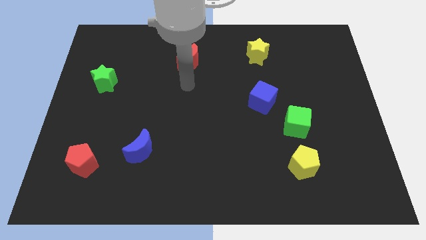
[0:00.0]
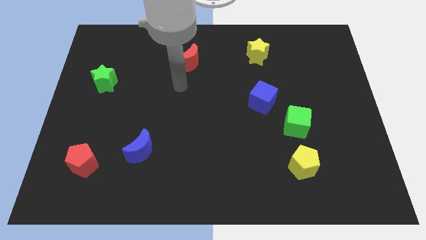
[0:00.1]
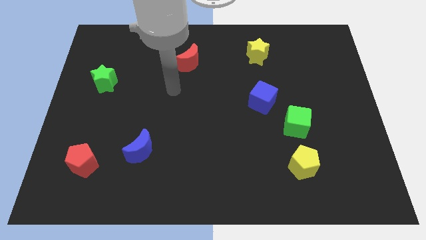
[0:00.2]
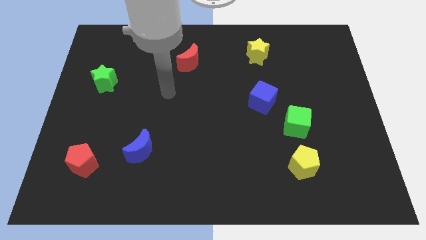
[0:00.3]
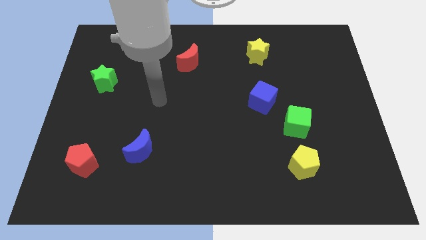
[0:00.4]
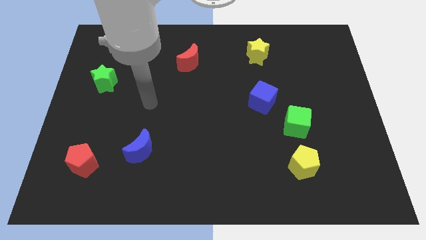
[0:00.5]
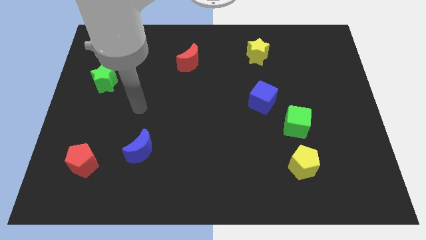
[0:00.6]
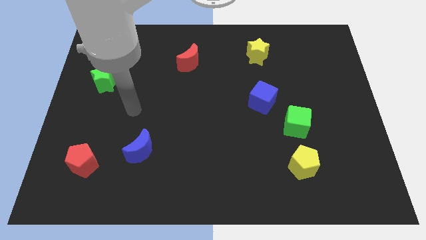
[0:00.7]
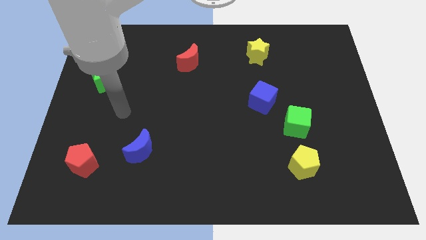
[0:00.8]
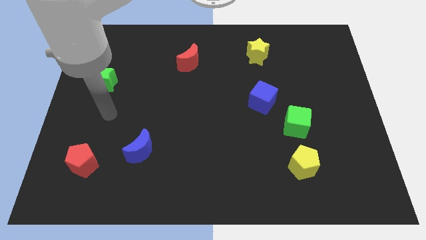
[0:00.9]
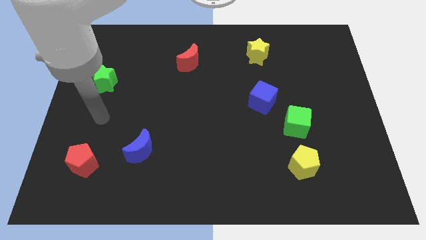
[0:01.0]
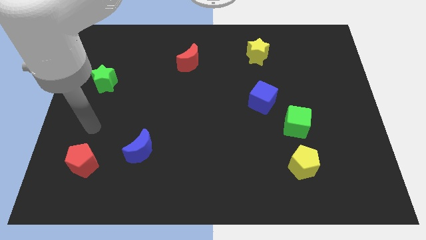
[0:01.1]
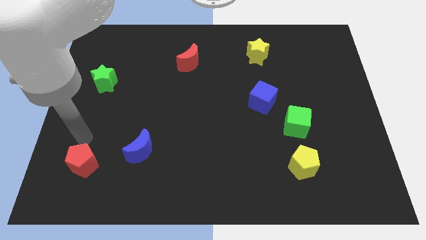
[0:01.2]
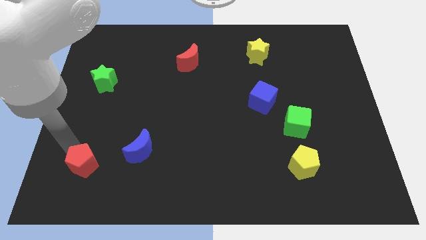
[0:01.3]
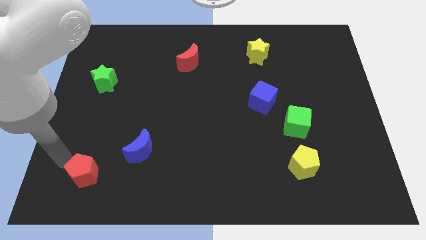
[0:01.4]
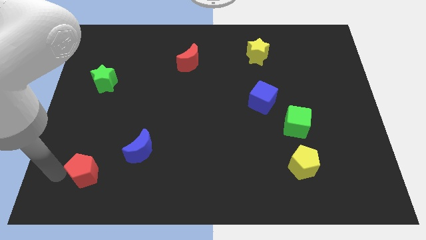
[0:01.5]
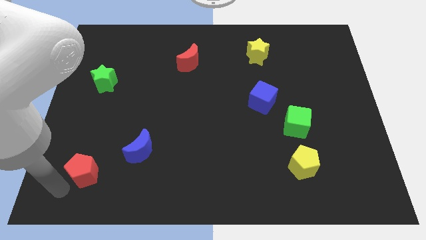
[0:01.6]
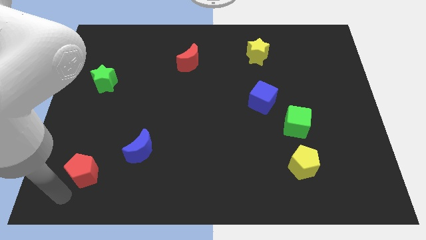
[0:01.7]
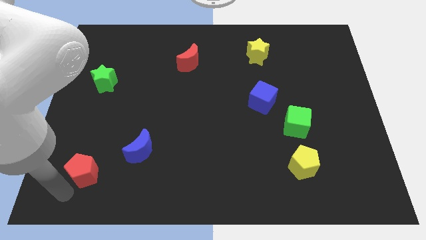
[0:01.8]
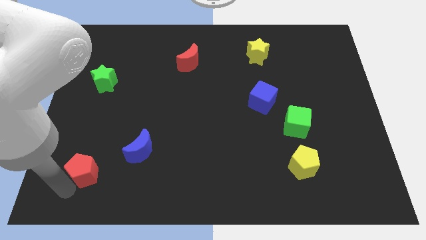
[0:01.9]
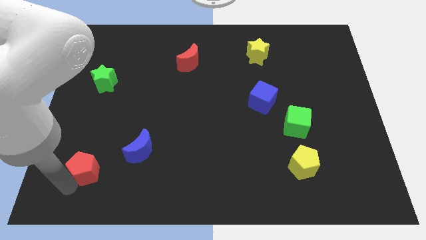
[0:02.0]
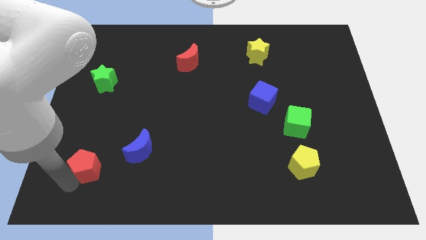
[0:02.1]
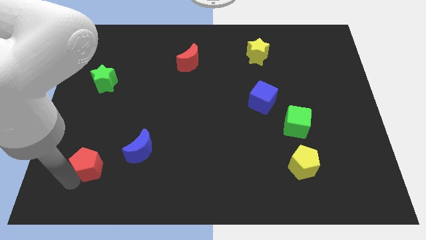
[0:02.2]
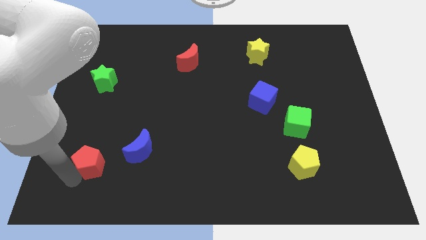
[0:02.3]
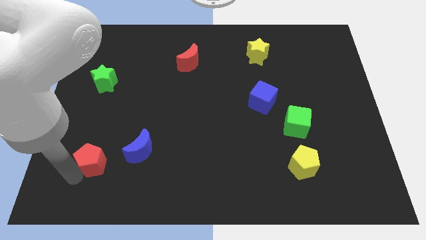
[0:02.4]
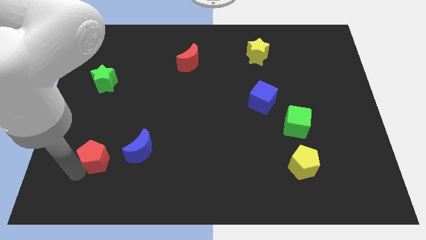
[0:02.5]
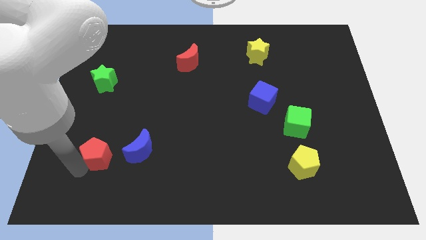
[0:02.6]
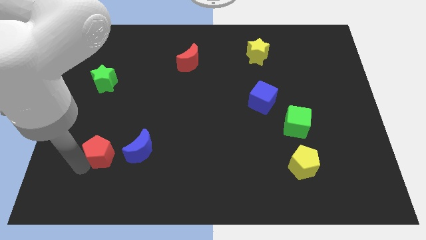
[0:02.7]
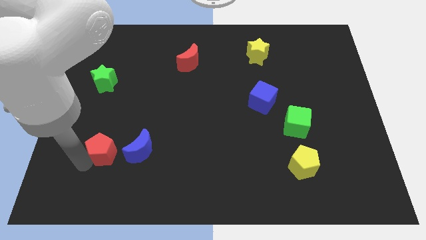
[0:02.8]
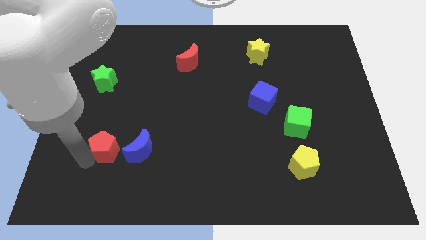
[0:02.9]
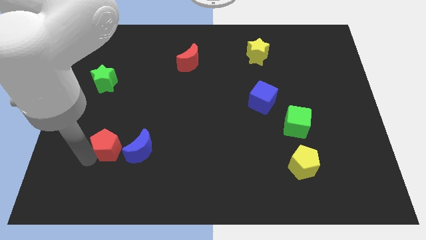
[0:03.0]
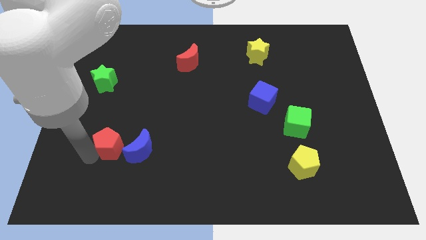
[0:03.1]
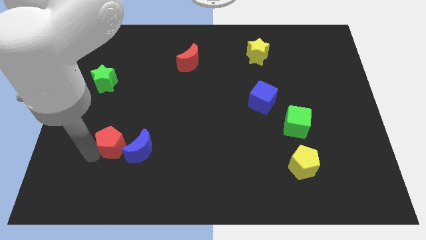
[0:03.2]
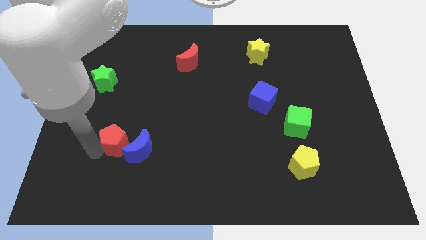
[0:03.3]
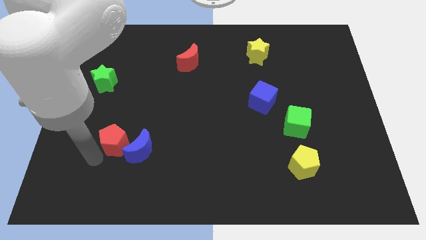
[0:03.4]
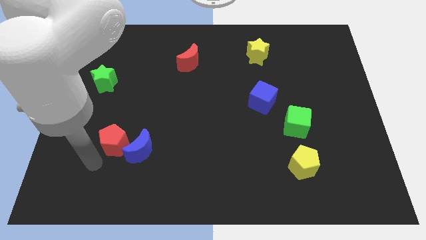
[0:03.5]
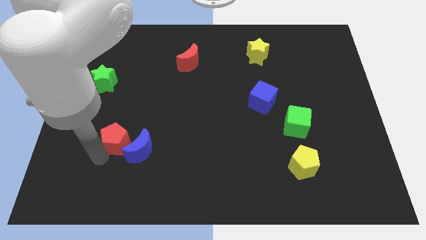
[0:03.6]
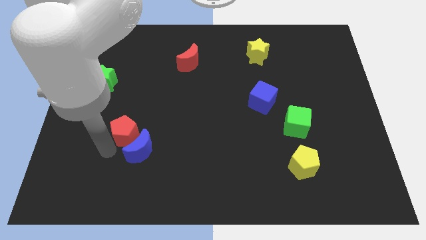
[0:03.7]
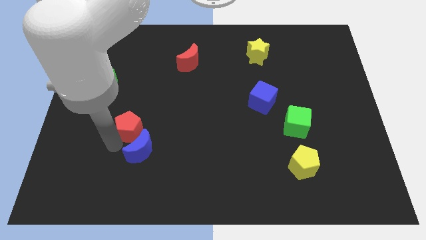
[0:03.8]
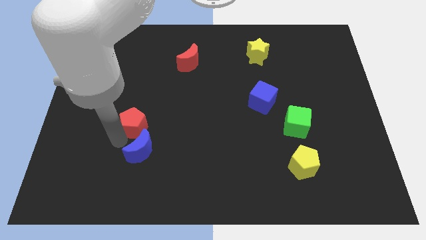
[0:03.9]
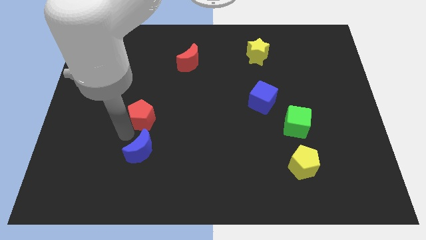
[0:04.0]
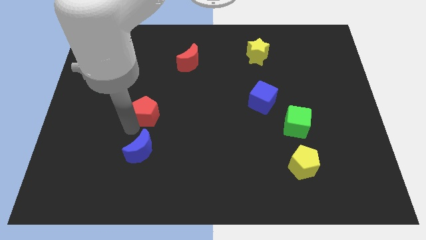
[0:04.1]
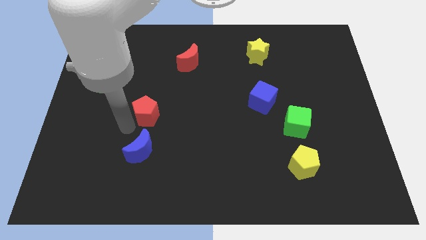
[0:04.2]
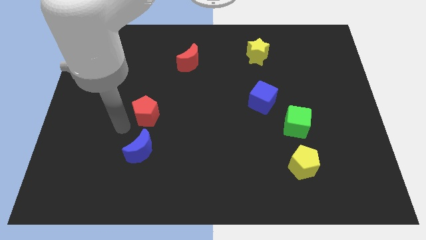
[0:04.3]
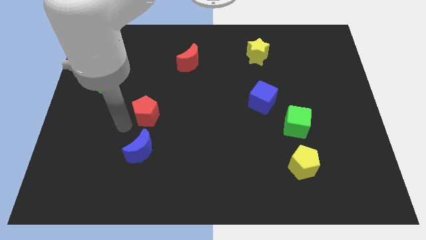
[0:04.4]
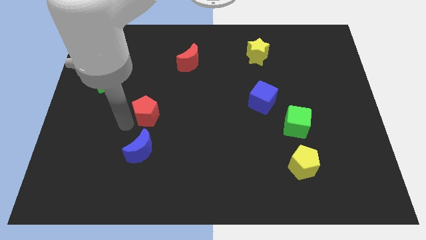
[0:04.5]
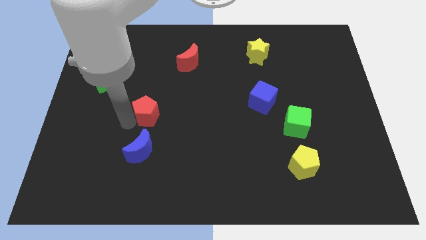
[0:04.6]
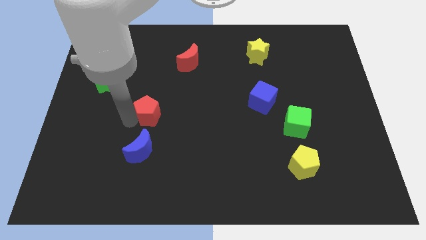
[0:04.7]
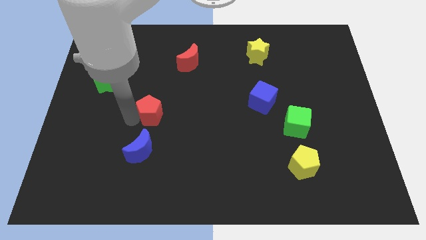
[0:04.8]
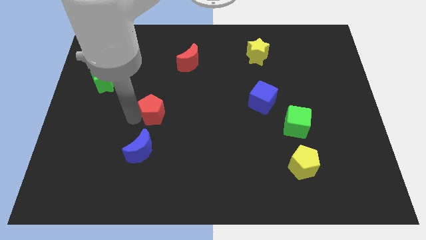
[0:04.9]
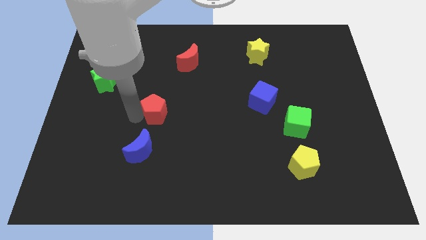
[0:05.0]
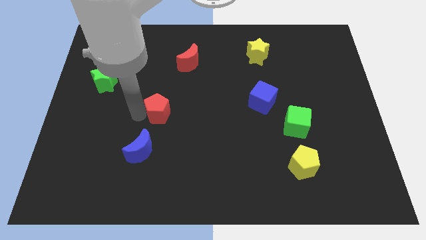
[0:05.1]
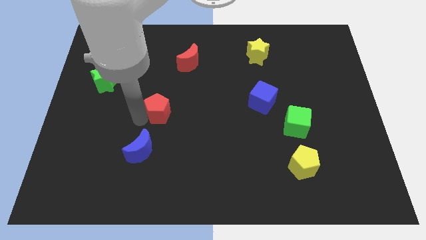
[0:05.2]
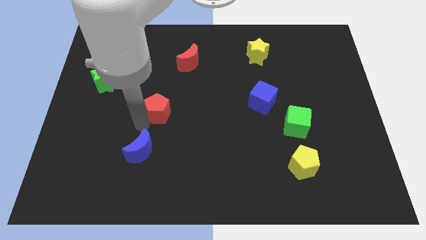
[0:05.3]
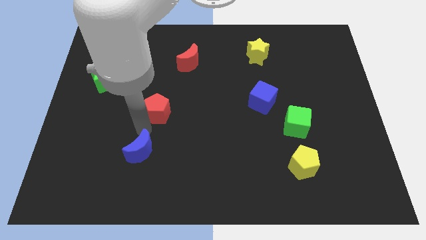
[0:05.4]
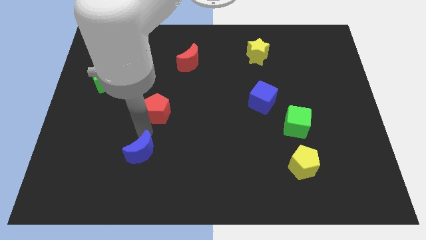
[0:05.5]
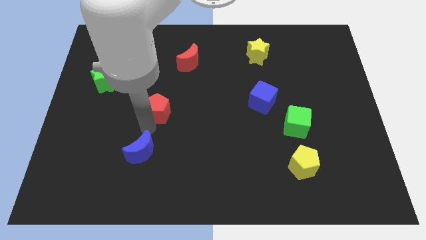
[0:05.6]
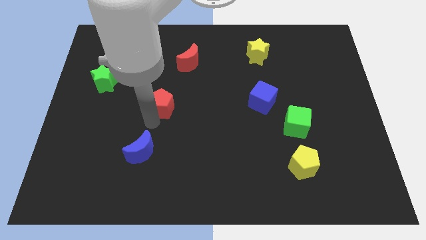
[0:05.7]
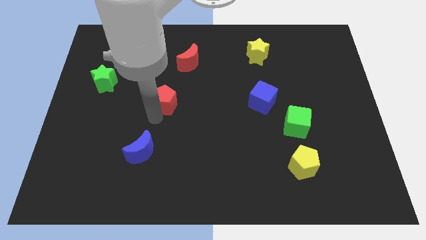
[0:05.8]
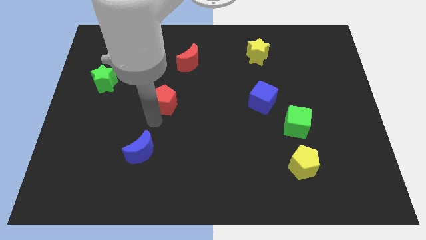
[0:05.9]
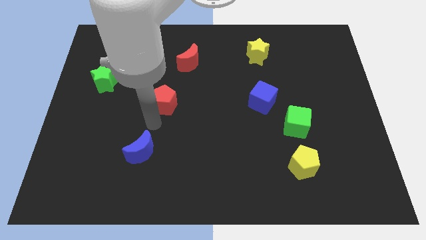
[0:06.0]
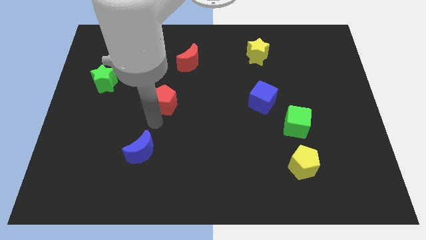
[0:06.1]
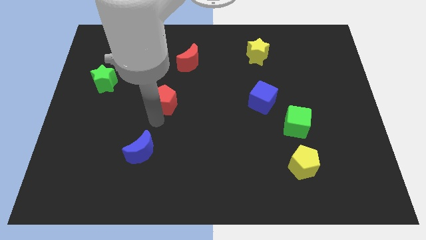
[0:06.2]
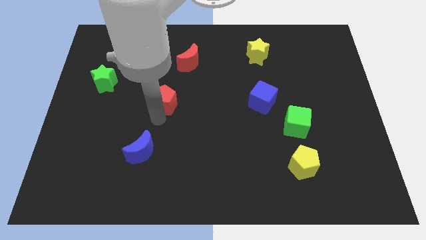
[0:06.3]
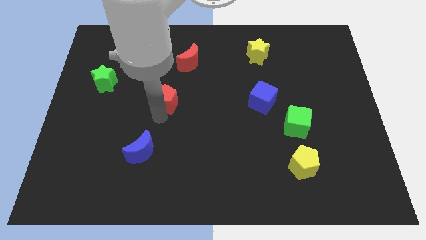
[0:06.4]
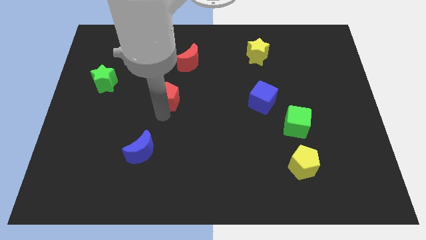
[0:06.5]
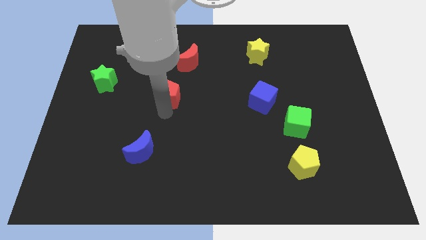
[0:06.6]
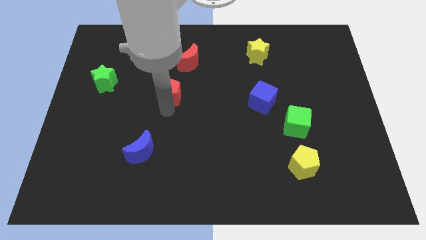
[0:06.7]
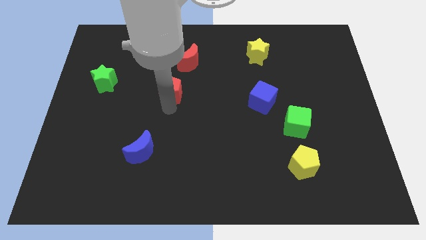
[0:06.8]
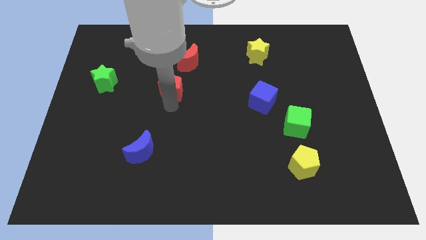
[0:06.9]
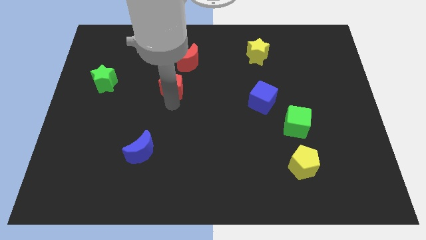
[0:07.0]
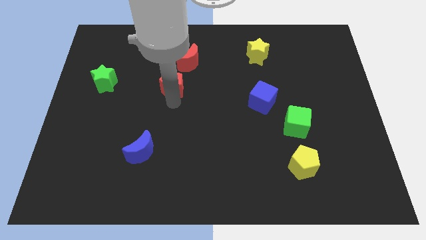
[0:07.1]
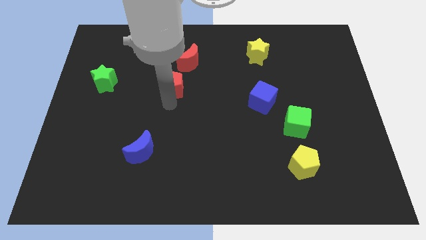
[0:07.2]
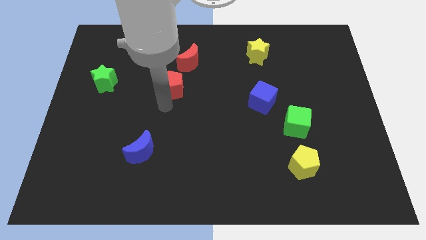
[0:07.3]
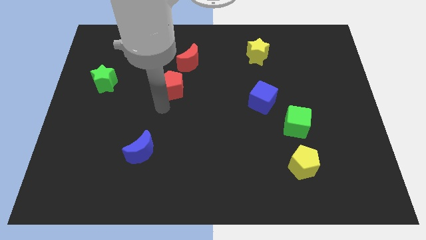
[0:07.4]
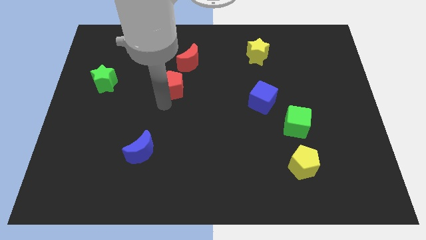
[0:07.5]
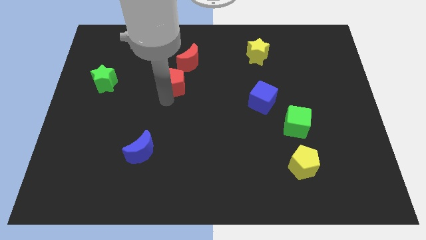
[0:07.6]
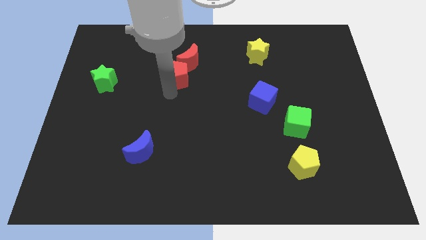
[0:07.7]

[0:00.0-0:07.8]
slide the red pentagon to the red moon
